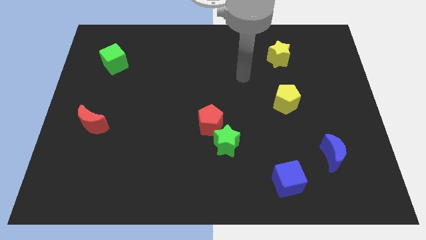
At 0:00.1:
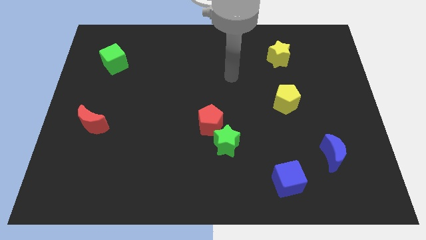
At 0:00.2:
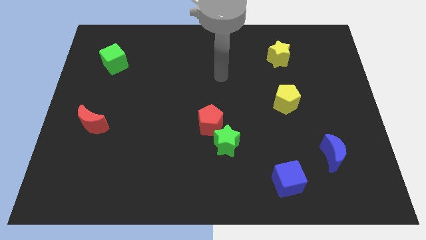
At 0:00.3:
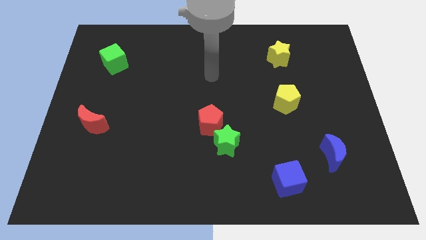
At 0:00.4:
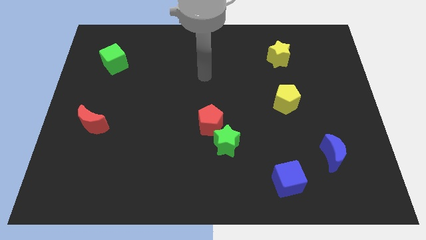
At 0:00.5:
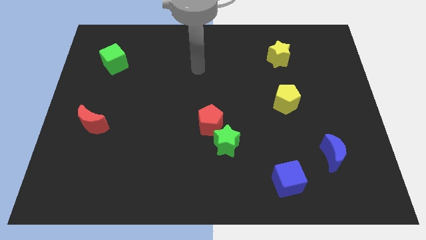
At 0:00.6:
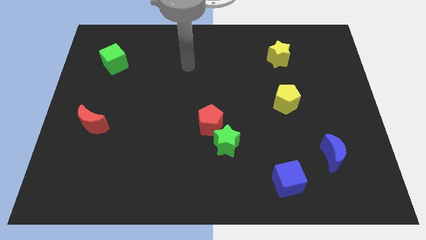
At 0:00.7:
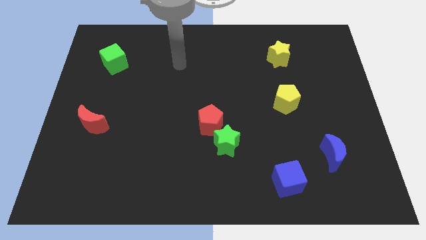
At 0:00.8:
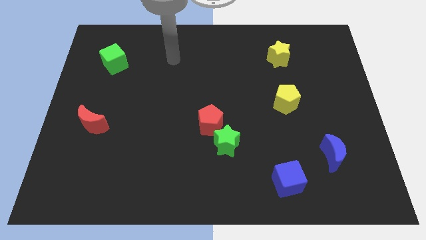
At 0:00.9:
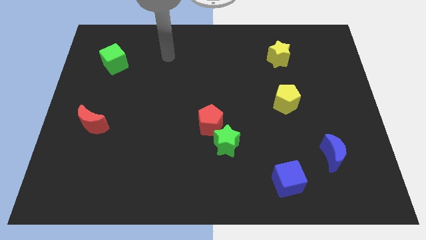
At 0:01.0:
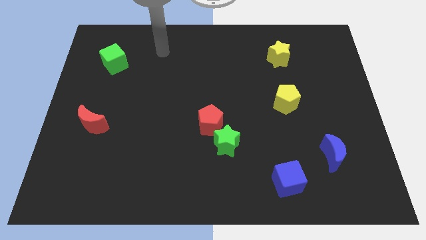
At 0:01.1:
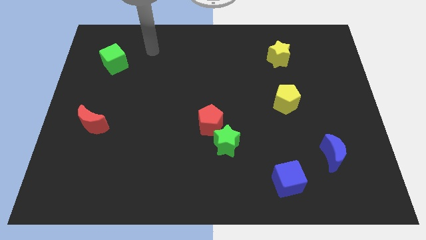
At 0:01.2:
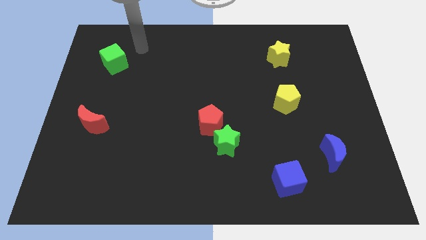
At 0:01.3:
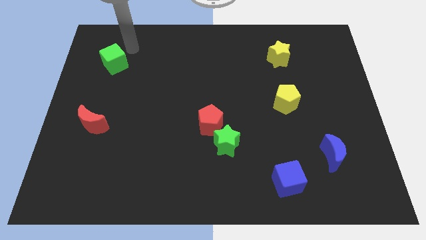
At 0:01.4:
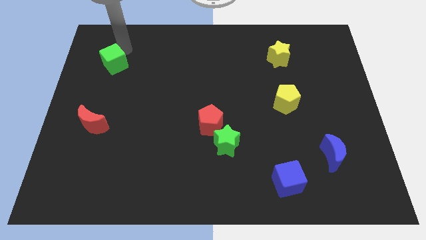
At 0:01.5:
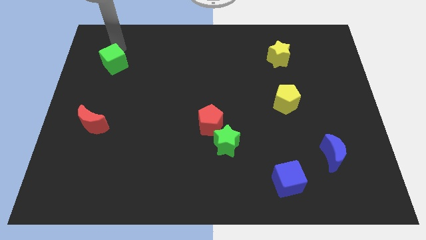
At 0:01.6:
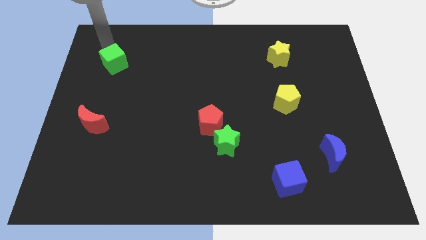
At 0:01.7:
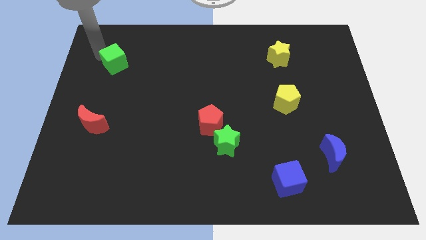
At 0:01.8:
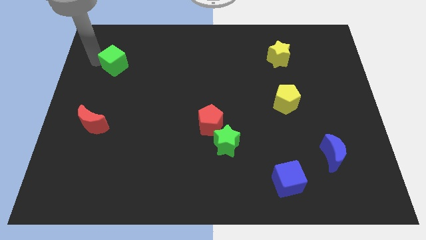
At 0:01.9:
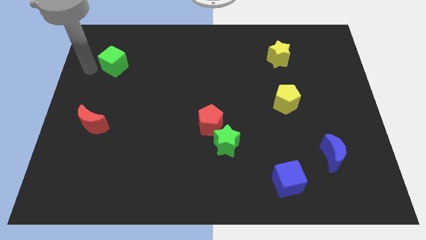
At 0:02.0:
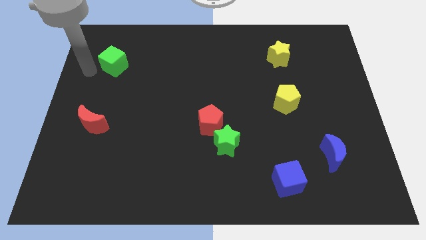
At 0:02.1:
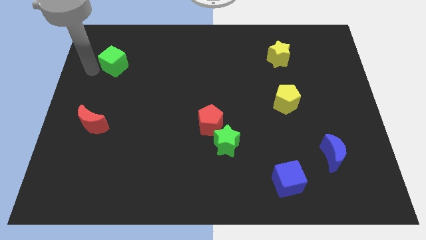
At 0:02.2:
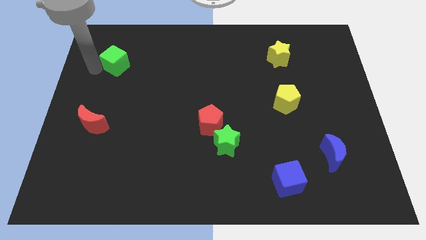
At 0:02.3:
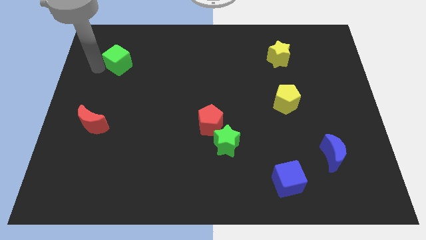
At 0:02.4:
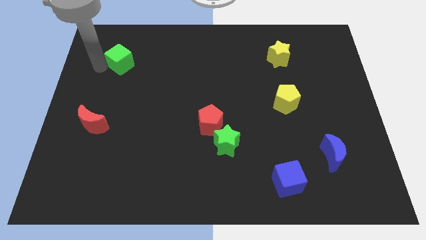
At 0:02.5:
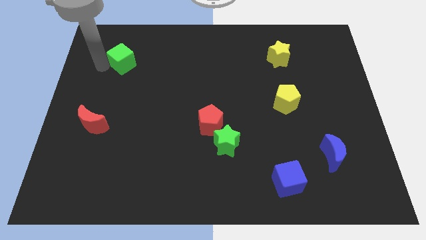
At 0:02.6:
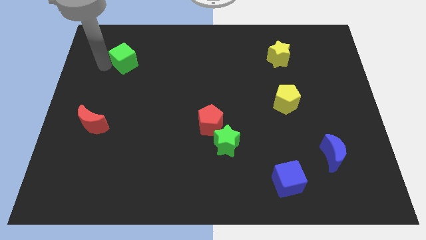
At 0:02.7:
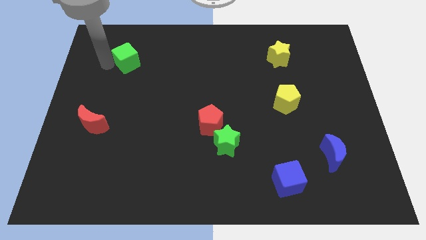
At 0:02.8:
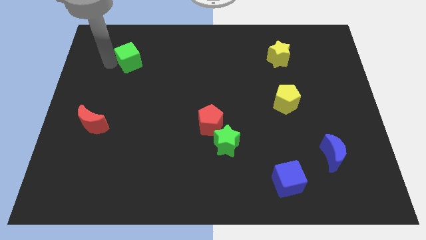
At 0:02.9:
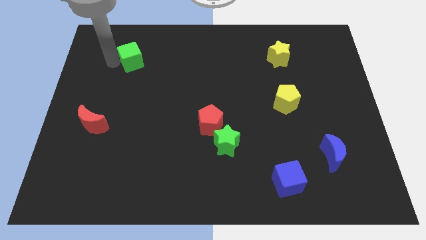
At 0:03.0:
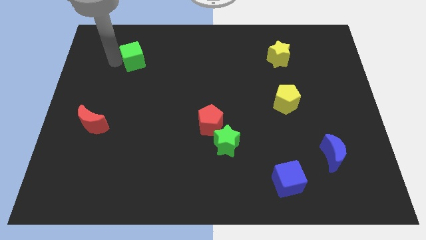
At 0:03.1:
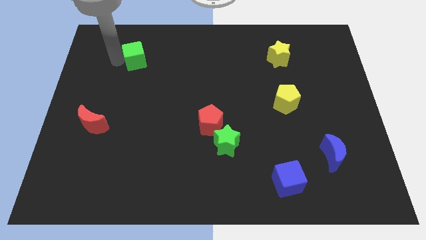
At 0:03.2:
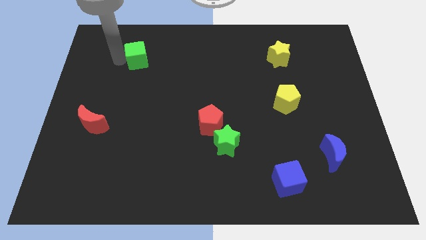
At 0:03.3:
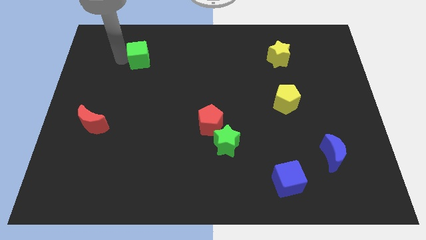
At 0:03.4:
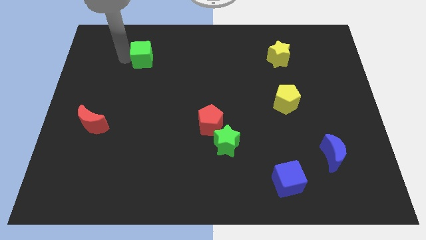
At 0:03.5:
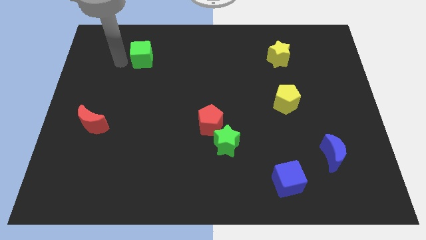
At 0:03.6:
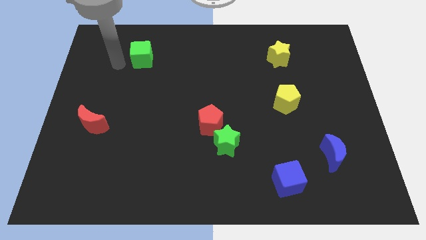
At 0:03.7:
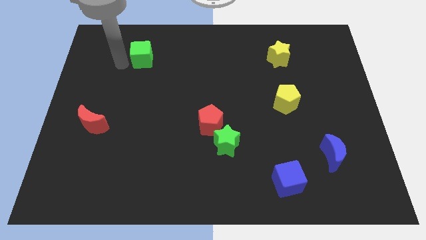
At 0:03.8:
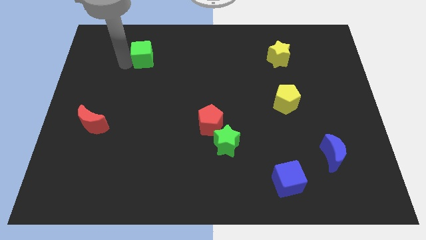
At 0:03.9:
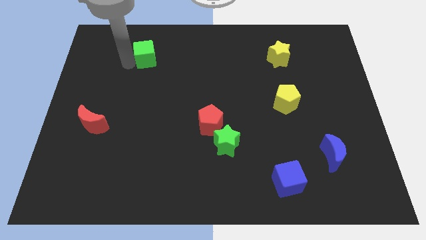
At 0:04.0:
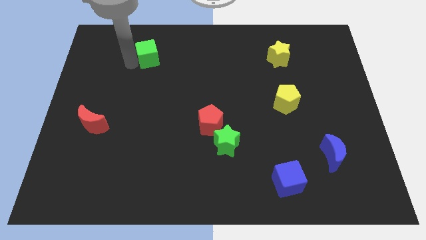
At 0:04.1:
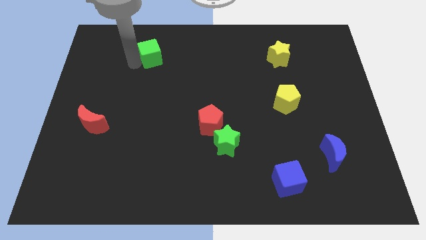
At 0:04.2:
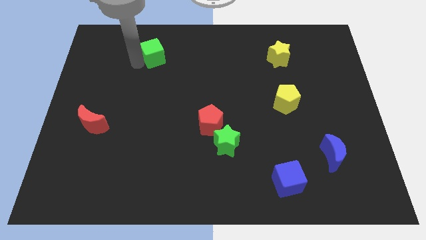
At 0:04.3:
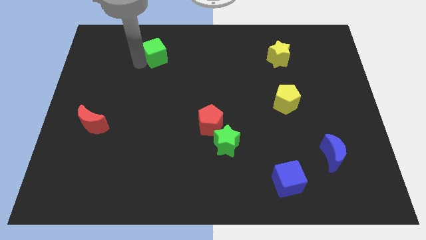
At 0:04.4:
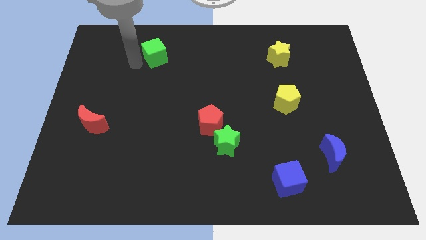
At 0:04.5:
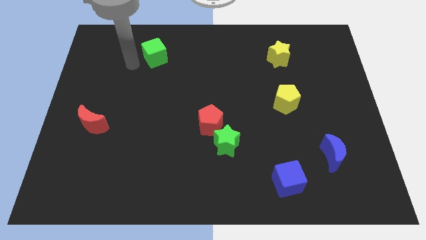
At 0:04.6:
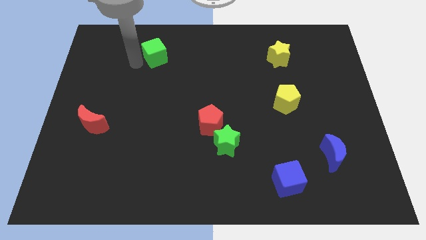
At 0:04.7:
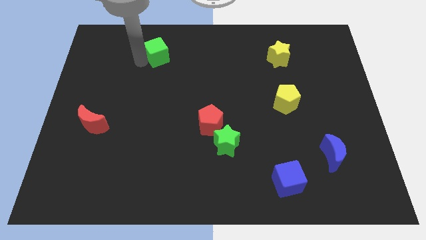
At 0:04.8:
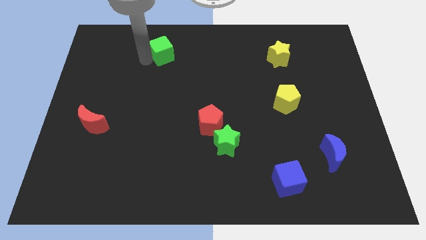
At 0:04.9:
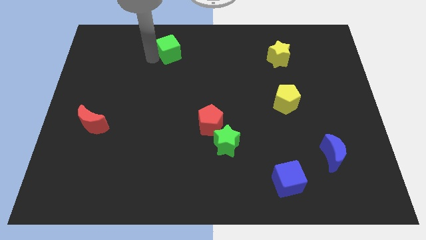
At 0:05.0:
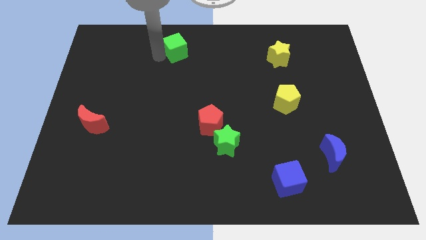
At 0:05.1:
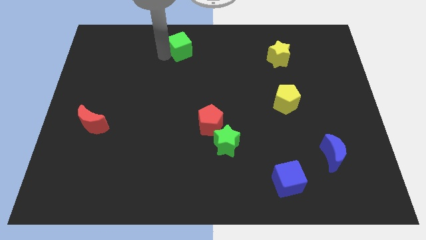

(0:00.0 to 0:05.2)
move the green cube to the top

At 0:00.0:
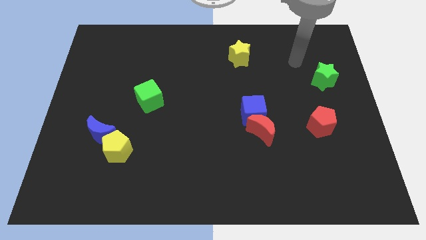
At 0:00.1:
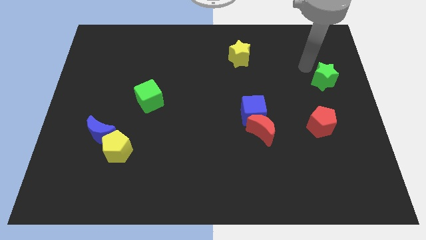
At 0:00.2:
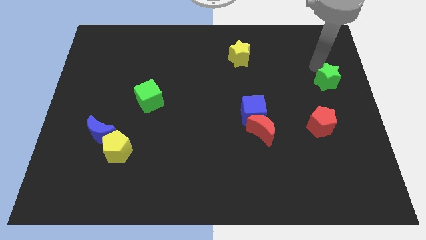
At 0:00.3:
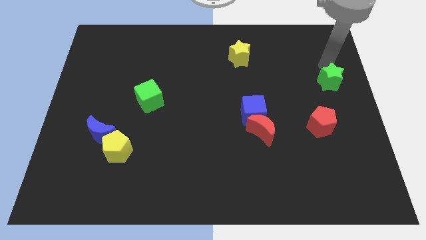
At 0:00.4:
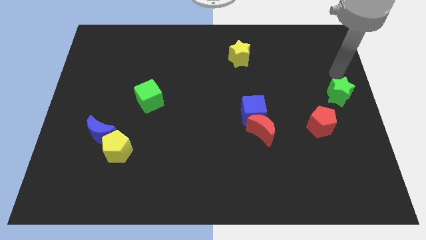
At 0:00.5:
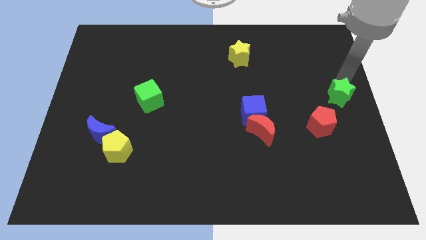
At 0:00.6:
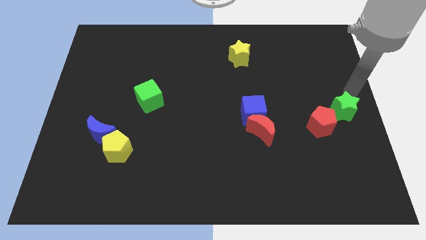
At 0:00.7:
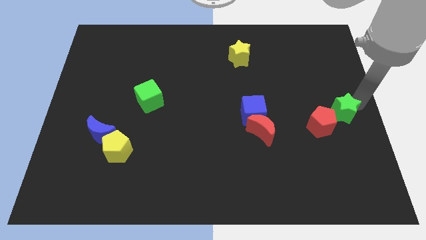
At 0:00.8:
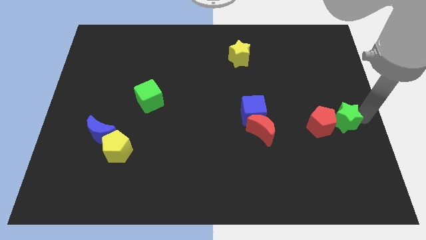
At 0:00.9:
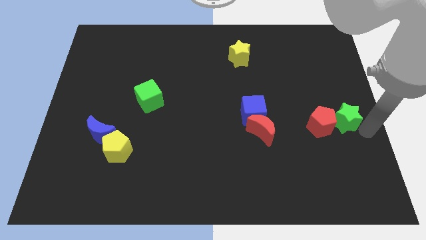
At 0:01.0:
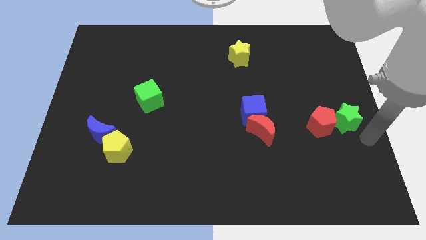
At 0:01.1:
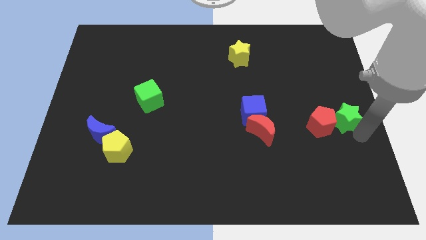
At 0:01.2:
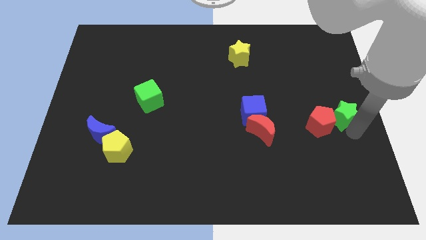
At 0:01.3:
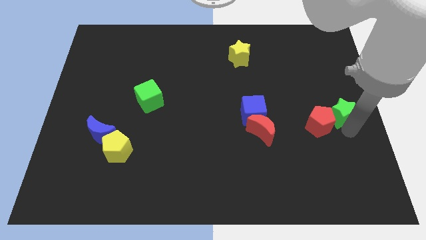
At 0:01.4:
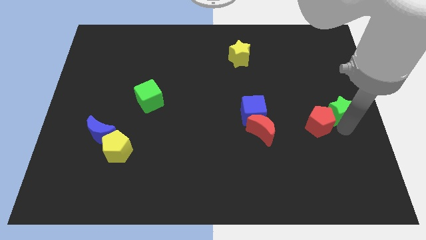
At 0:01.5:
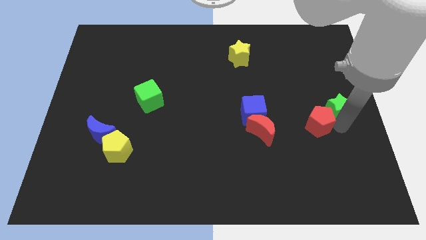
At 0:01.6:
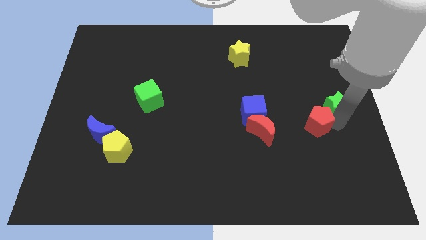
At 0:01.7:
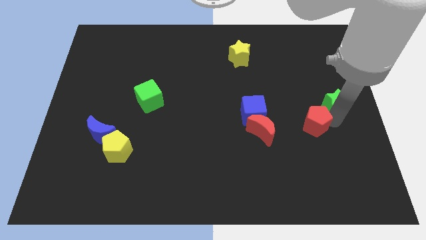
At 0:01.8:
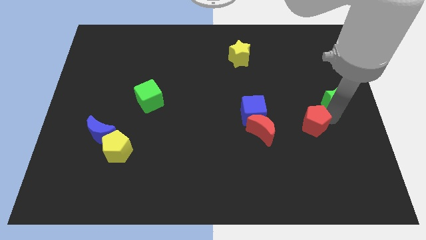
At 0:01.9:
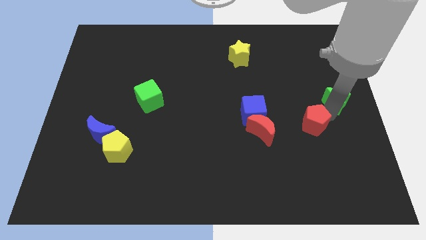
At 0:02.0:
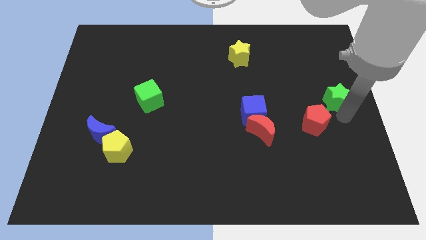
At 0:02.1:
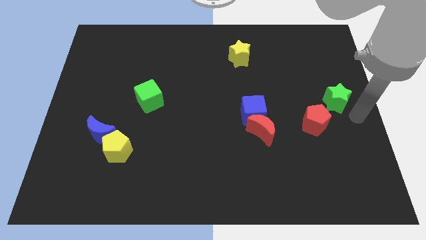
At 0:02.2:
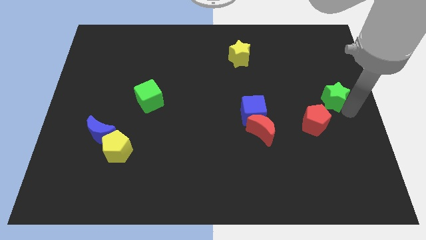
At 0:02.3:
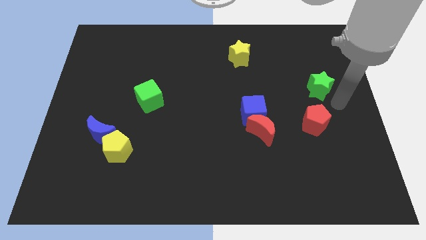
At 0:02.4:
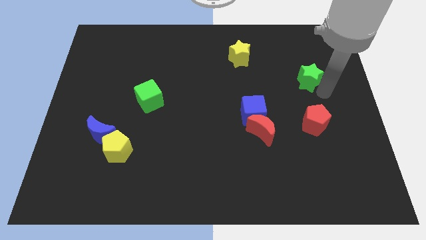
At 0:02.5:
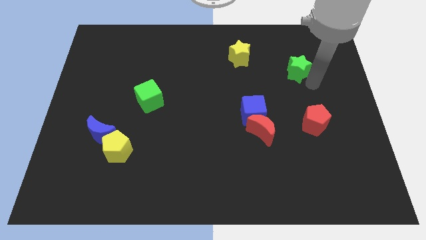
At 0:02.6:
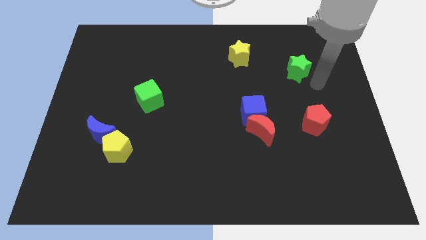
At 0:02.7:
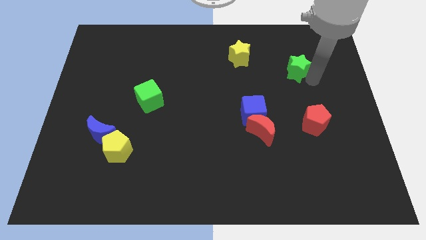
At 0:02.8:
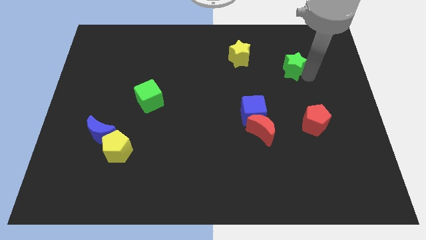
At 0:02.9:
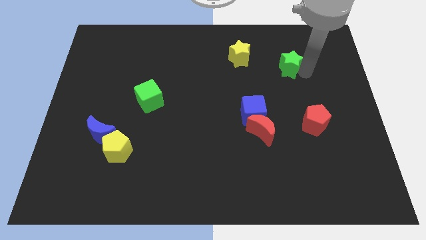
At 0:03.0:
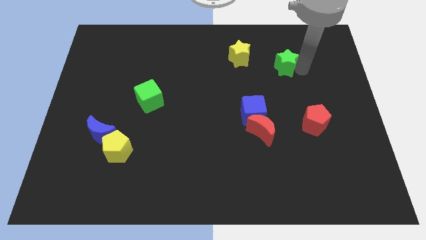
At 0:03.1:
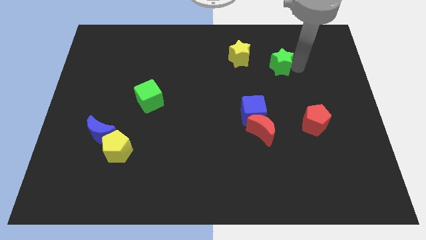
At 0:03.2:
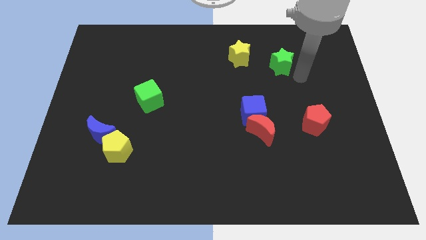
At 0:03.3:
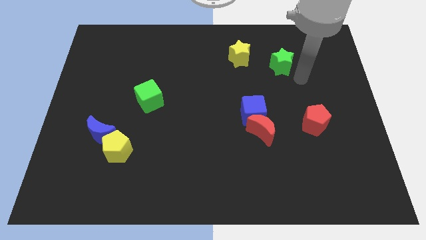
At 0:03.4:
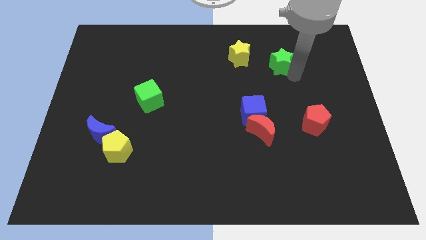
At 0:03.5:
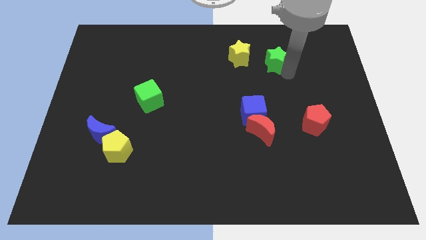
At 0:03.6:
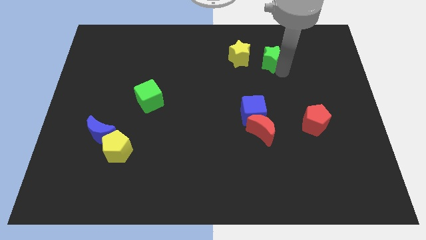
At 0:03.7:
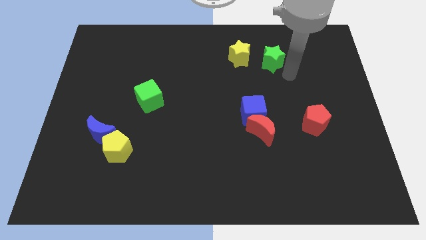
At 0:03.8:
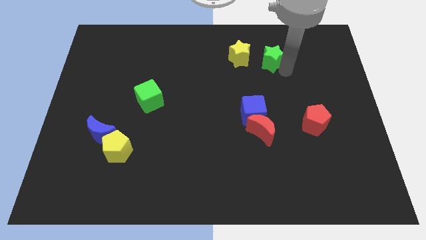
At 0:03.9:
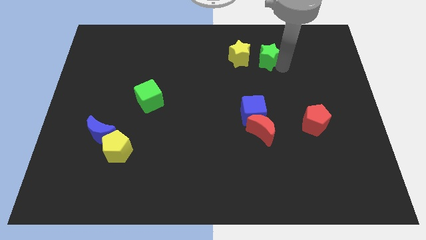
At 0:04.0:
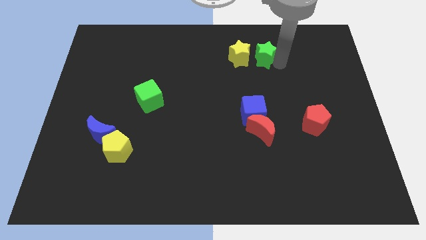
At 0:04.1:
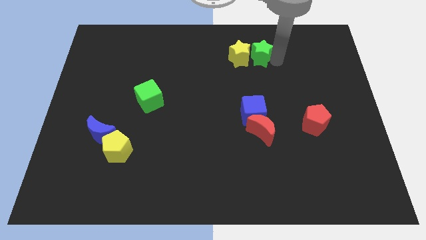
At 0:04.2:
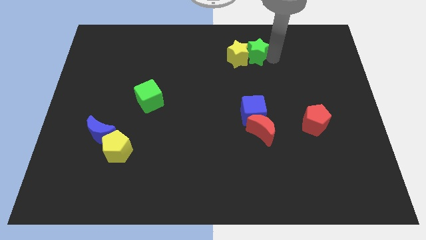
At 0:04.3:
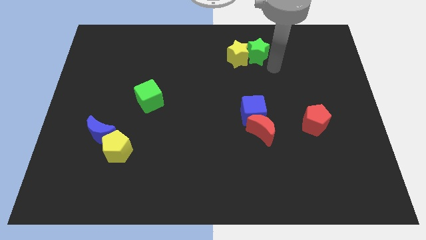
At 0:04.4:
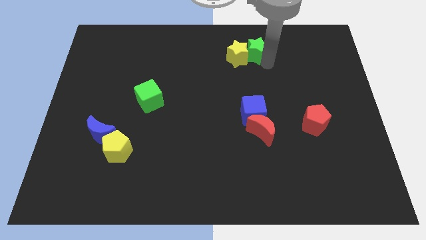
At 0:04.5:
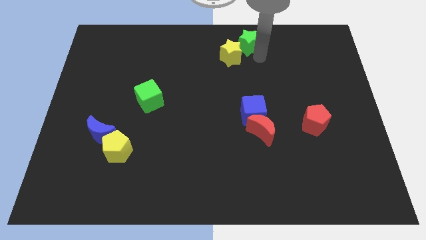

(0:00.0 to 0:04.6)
push the green star to the top
